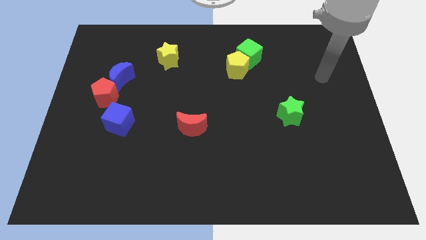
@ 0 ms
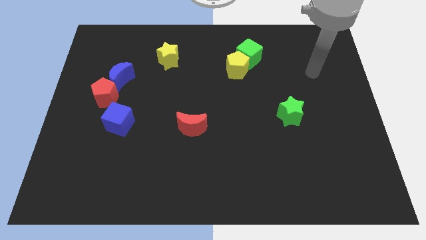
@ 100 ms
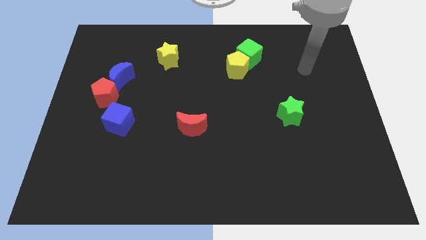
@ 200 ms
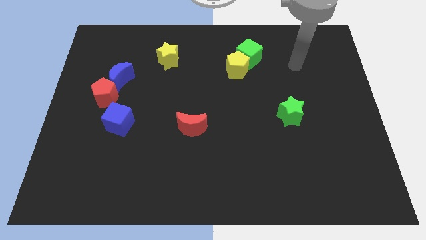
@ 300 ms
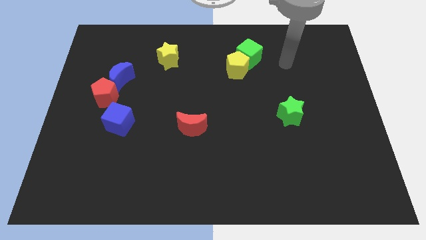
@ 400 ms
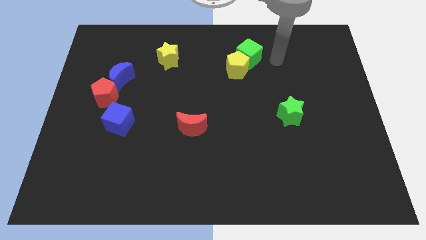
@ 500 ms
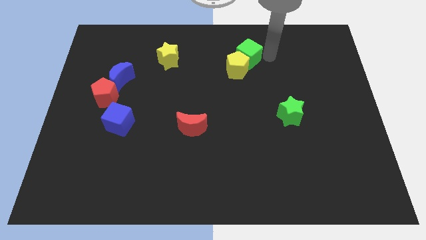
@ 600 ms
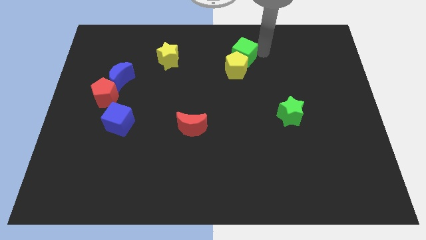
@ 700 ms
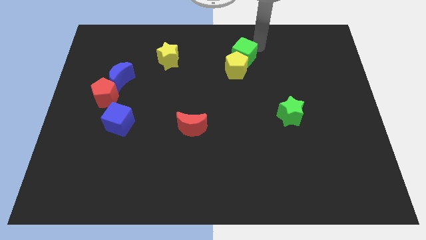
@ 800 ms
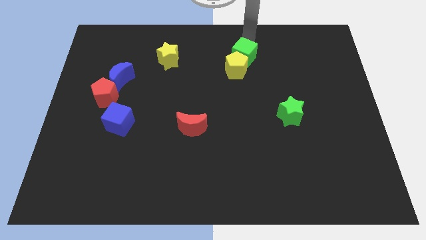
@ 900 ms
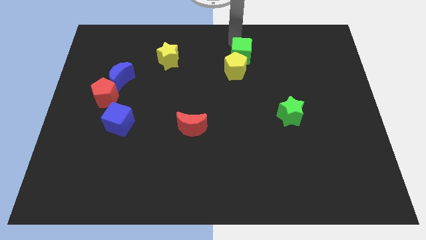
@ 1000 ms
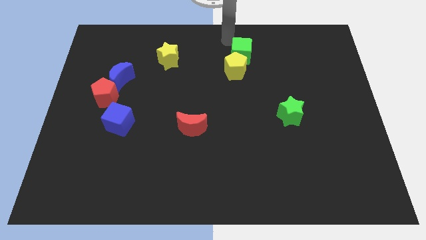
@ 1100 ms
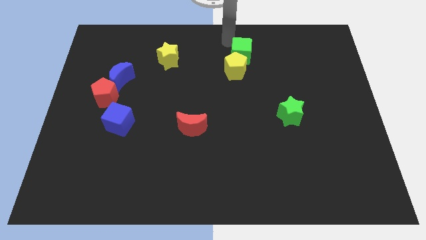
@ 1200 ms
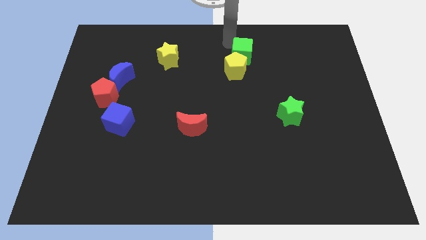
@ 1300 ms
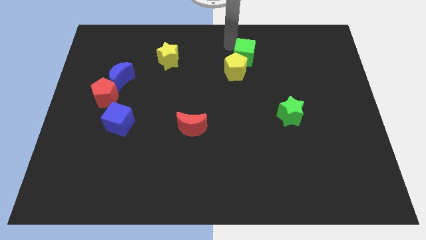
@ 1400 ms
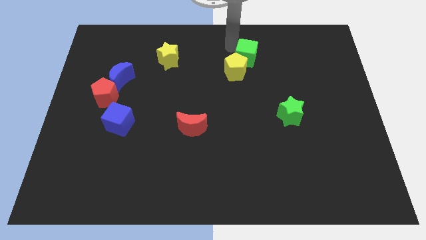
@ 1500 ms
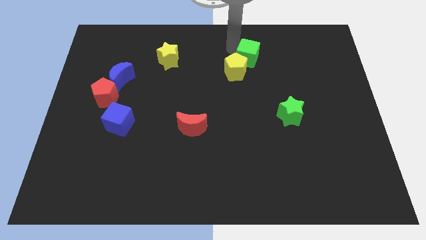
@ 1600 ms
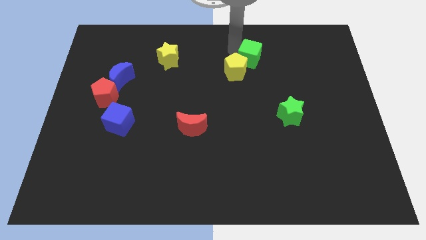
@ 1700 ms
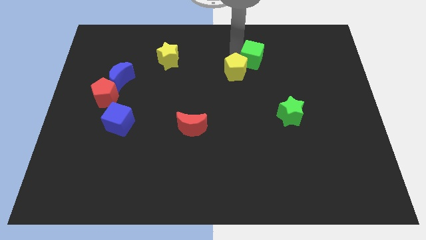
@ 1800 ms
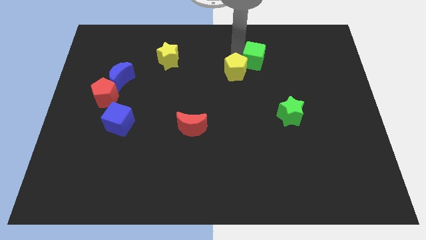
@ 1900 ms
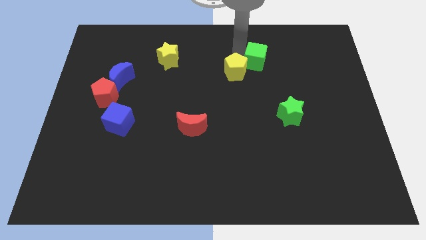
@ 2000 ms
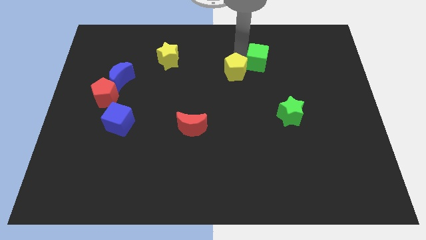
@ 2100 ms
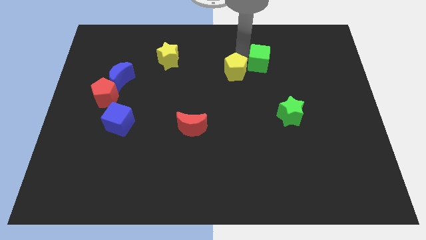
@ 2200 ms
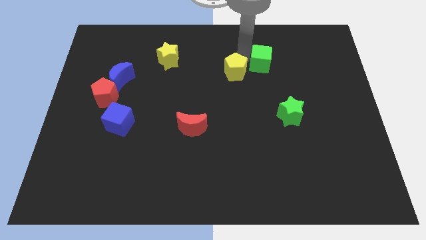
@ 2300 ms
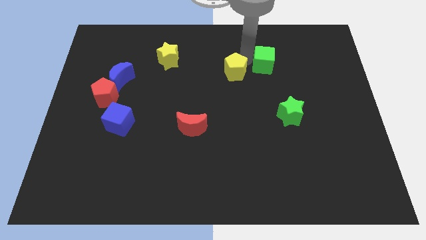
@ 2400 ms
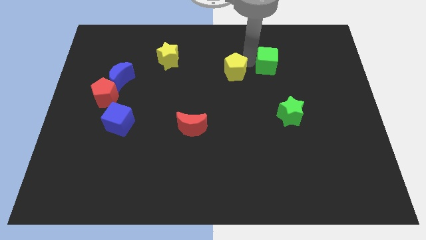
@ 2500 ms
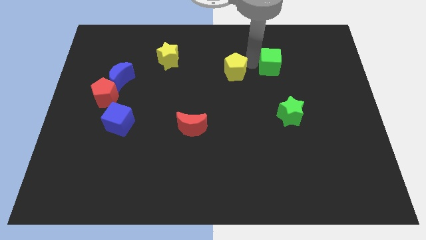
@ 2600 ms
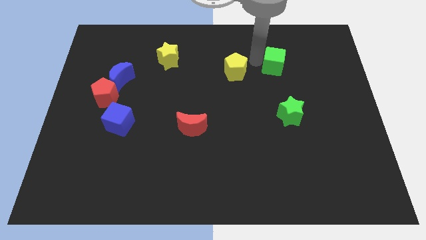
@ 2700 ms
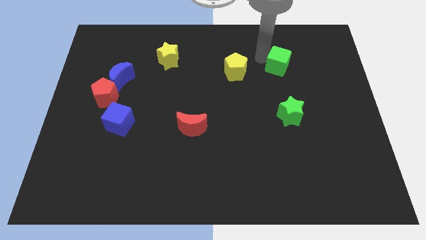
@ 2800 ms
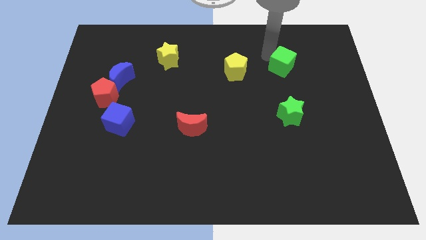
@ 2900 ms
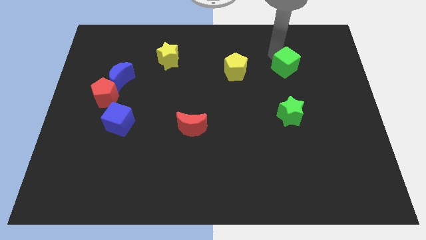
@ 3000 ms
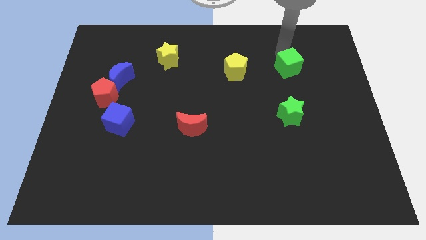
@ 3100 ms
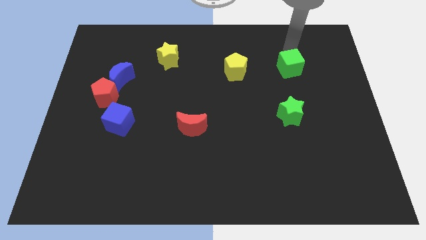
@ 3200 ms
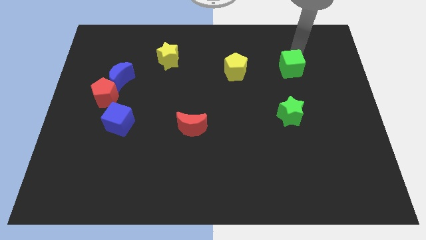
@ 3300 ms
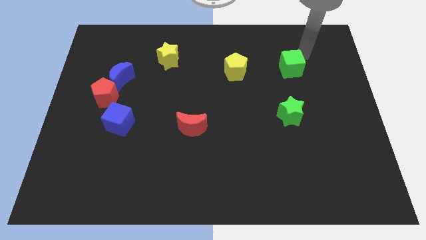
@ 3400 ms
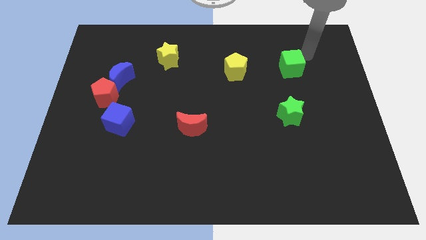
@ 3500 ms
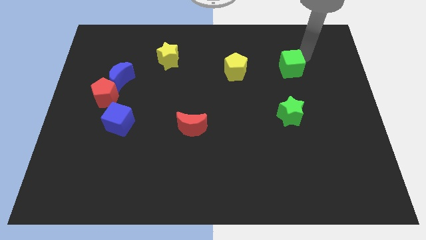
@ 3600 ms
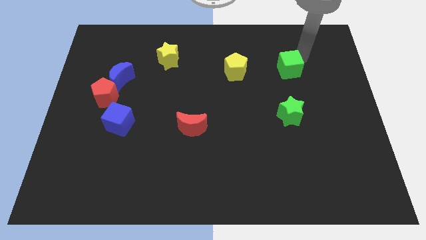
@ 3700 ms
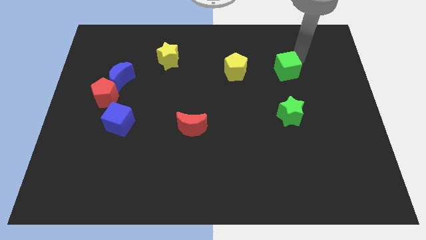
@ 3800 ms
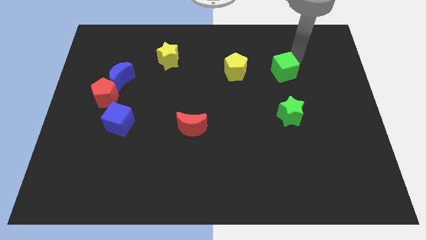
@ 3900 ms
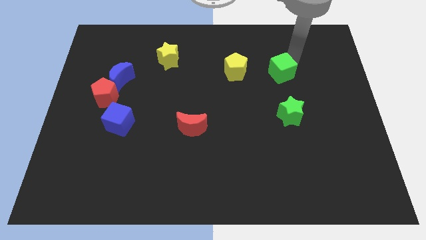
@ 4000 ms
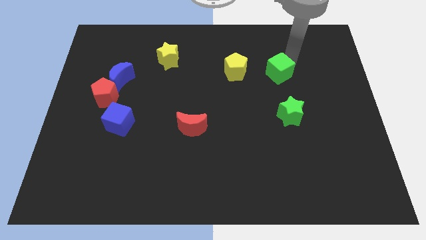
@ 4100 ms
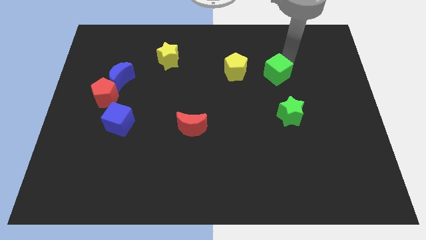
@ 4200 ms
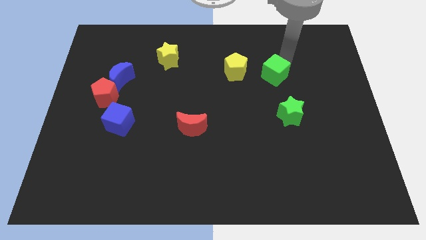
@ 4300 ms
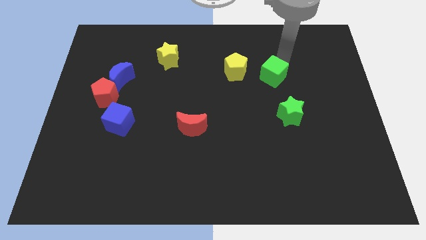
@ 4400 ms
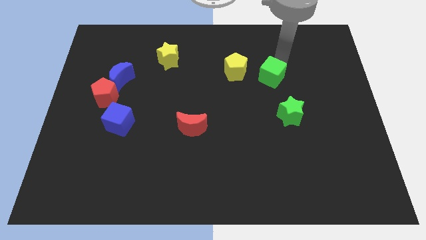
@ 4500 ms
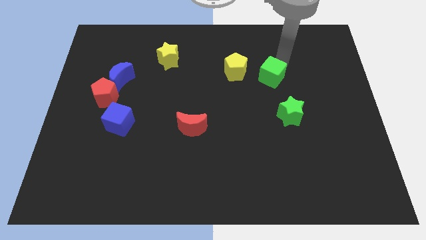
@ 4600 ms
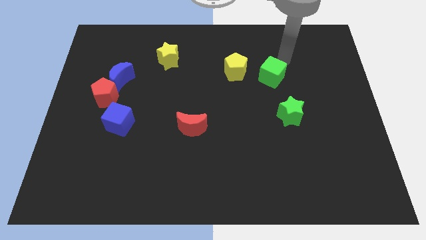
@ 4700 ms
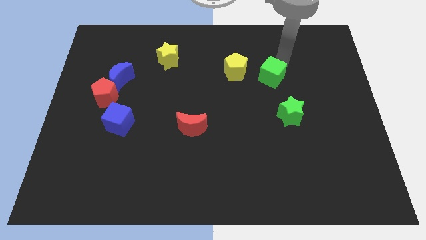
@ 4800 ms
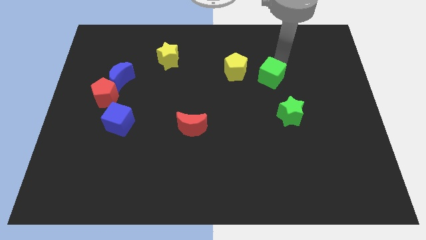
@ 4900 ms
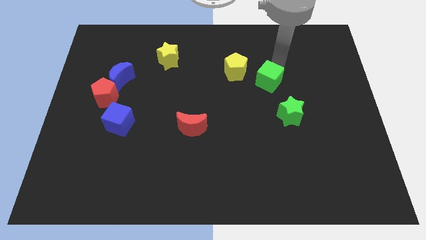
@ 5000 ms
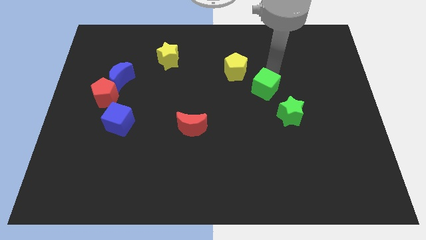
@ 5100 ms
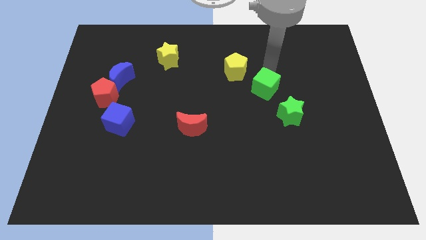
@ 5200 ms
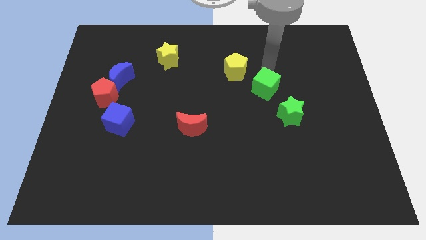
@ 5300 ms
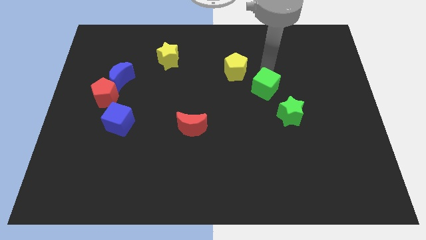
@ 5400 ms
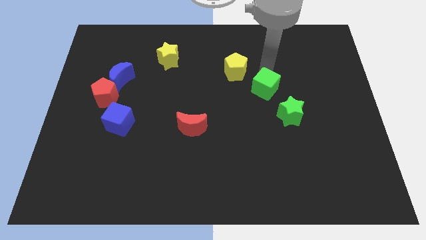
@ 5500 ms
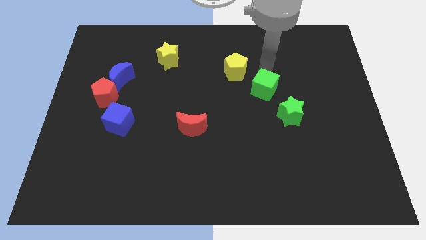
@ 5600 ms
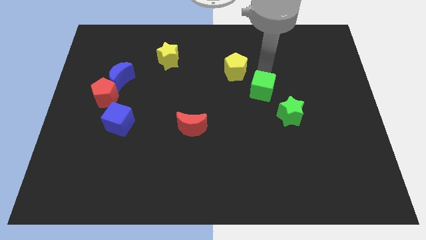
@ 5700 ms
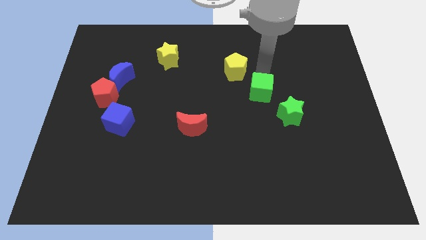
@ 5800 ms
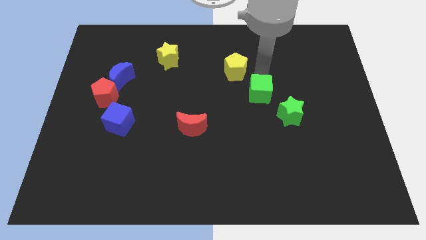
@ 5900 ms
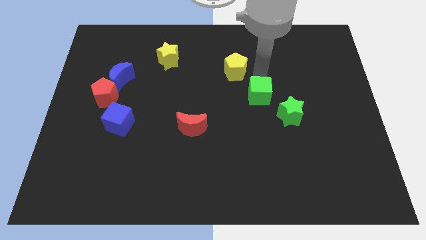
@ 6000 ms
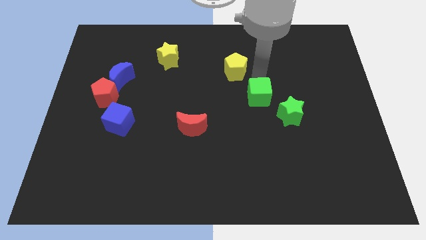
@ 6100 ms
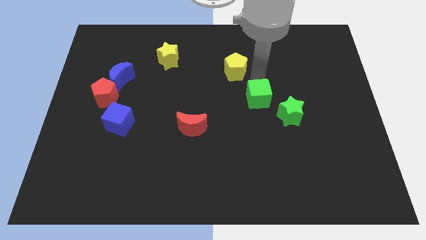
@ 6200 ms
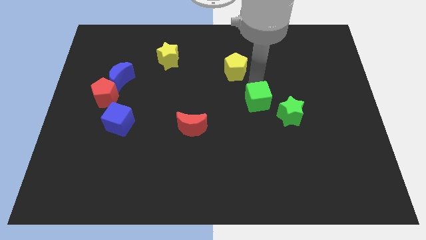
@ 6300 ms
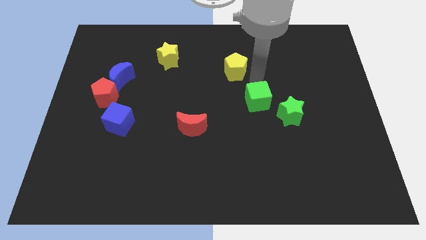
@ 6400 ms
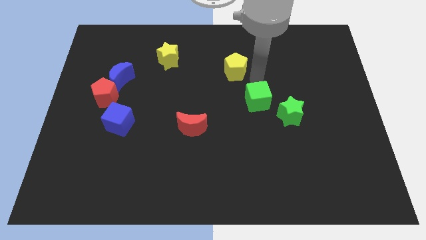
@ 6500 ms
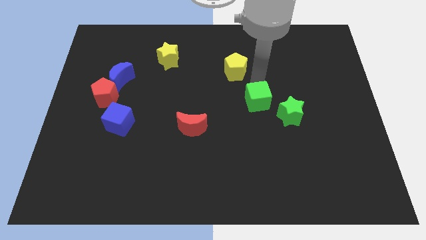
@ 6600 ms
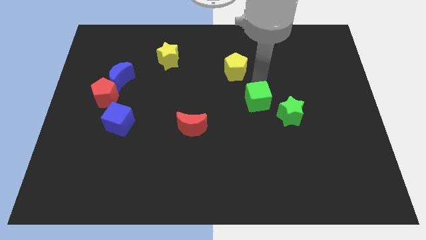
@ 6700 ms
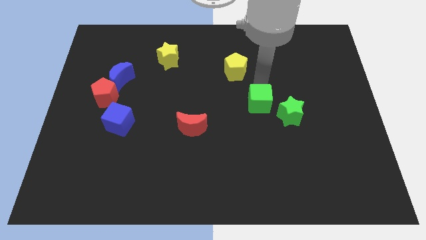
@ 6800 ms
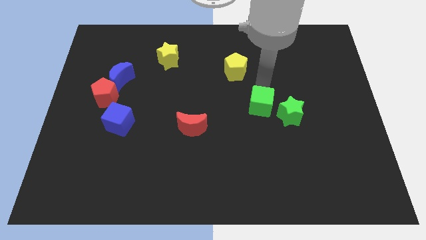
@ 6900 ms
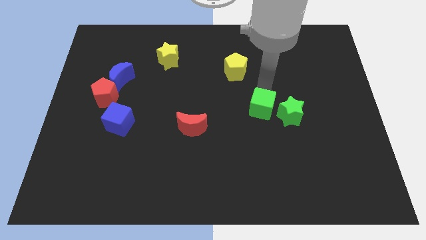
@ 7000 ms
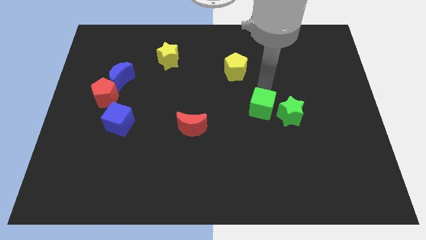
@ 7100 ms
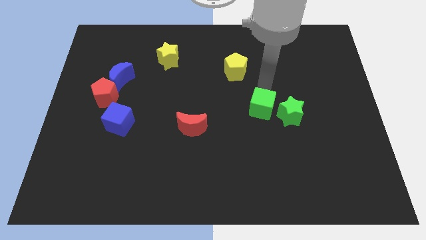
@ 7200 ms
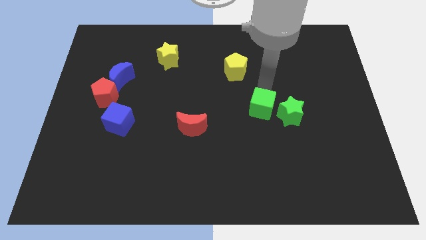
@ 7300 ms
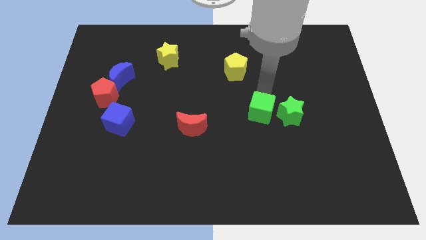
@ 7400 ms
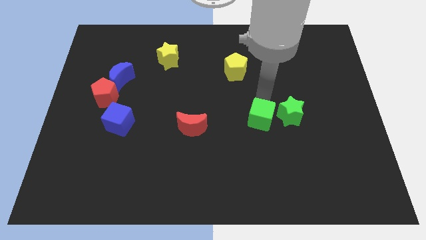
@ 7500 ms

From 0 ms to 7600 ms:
push the green cube downwards

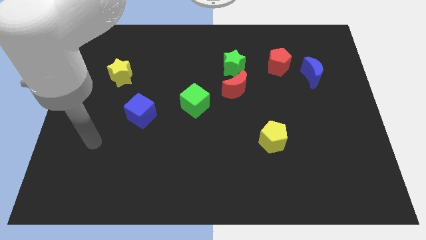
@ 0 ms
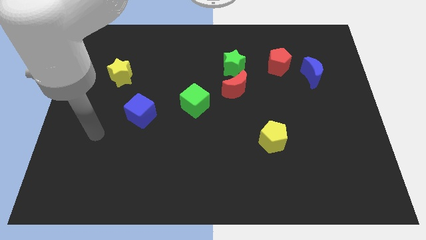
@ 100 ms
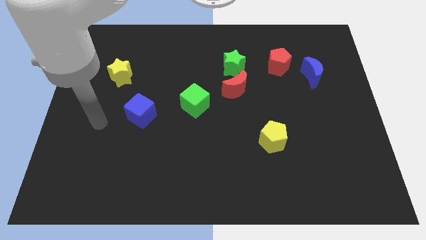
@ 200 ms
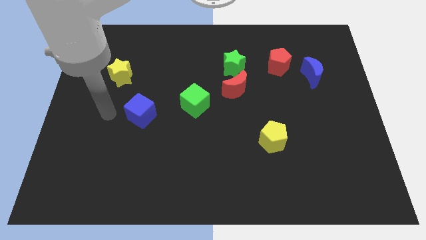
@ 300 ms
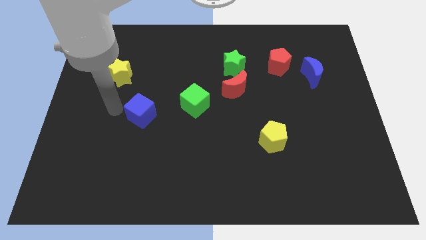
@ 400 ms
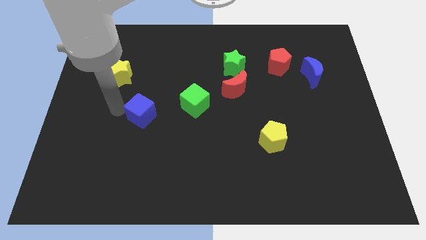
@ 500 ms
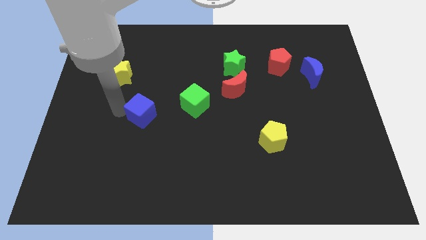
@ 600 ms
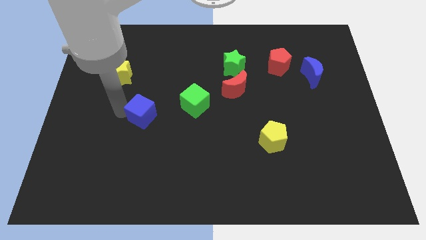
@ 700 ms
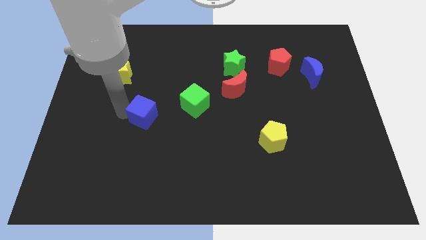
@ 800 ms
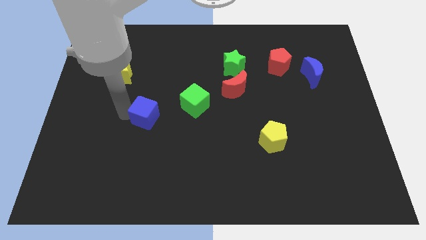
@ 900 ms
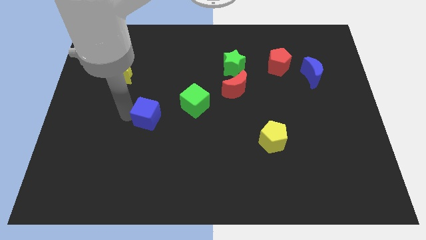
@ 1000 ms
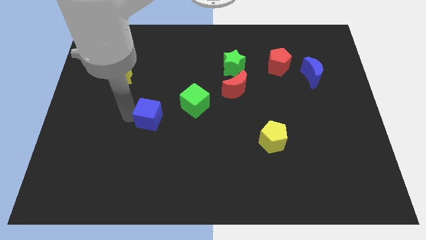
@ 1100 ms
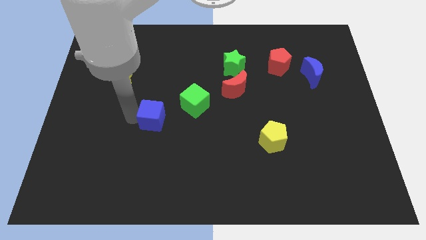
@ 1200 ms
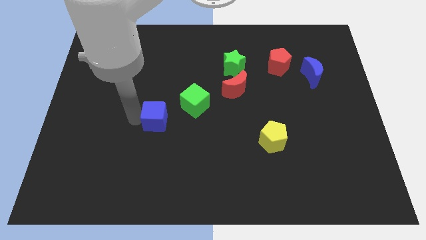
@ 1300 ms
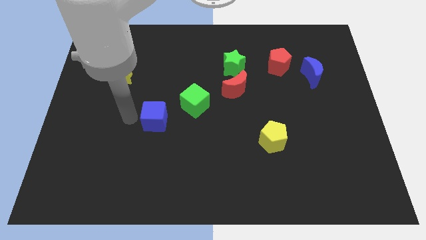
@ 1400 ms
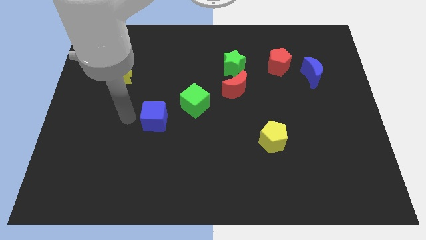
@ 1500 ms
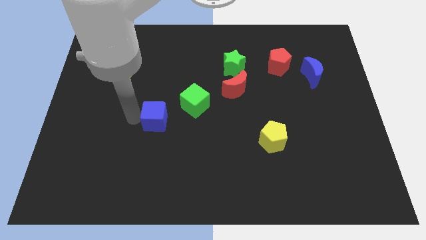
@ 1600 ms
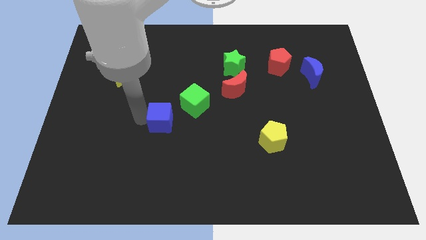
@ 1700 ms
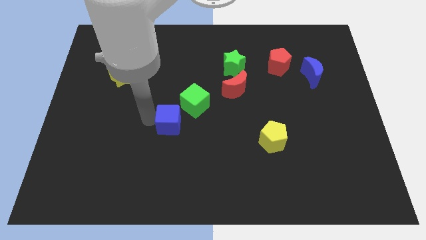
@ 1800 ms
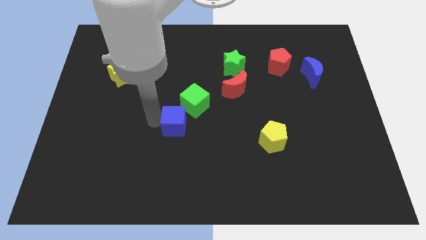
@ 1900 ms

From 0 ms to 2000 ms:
slightly move the blue cube to the right
